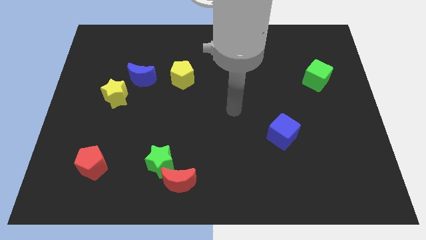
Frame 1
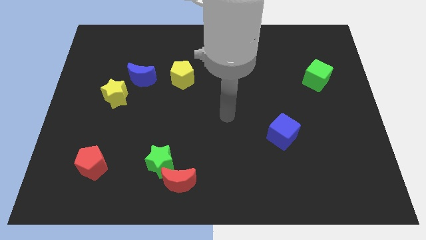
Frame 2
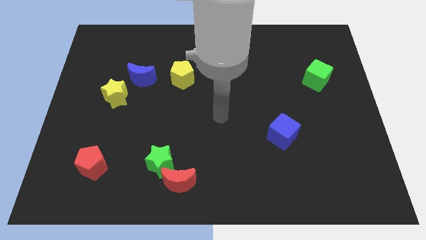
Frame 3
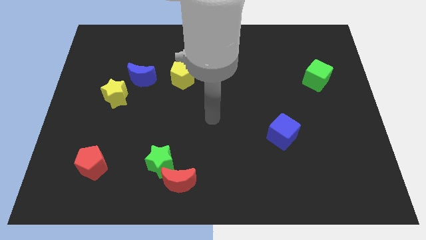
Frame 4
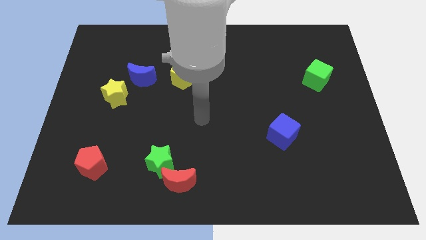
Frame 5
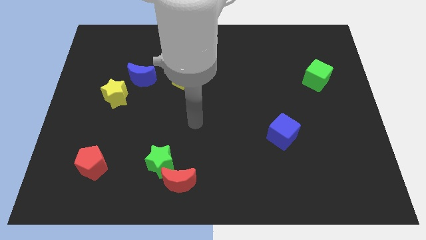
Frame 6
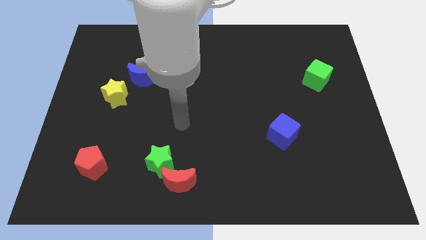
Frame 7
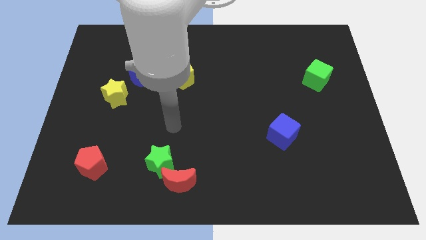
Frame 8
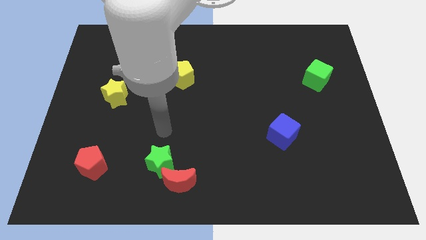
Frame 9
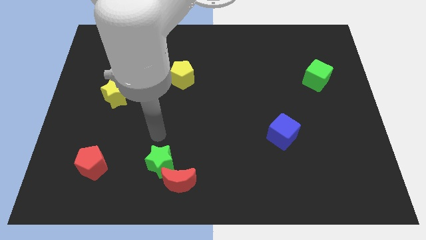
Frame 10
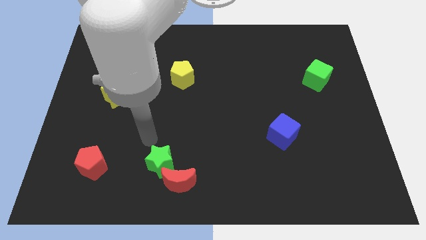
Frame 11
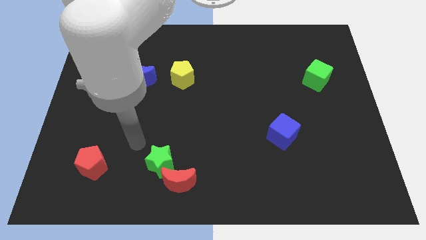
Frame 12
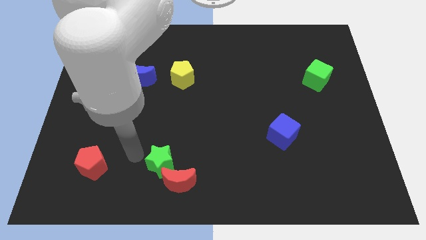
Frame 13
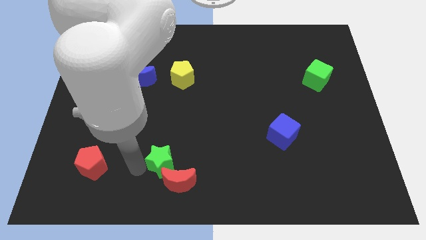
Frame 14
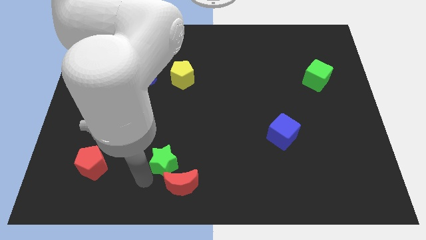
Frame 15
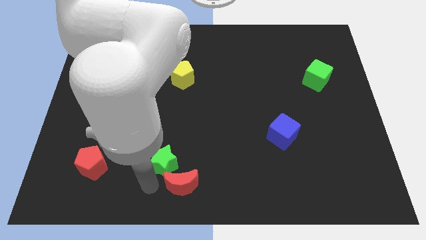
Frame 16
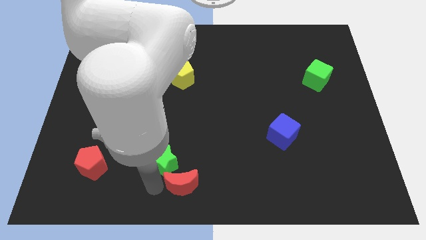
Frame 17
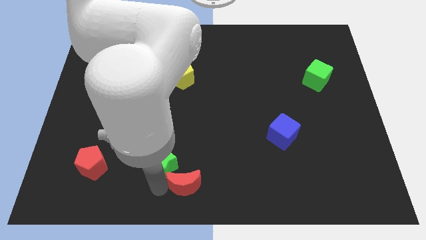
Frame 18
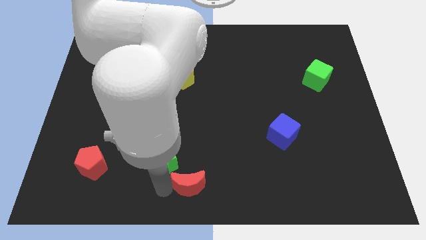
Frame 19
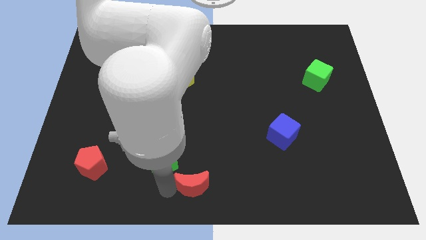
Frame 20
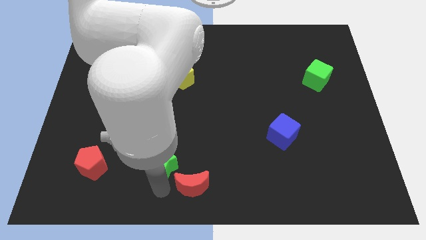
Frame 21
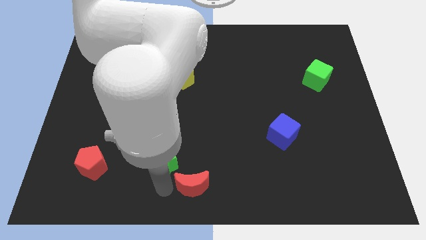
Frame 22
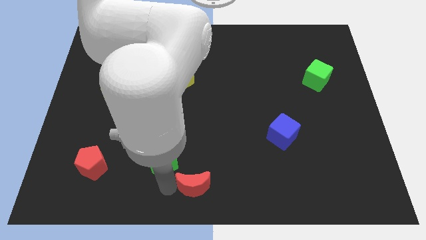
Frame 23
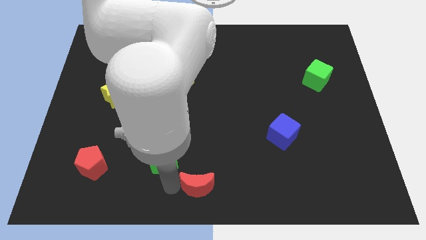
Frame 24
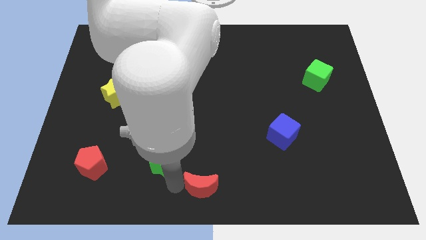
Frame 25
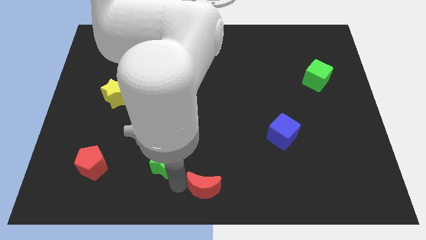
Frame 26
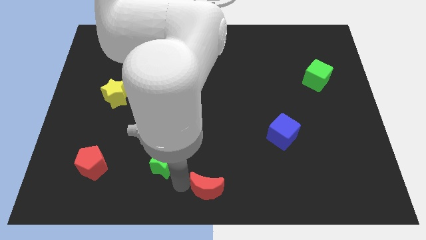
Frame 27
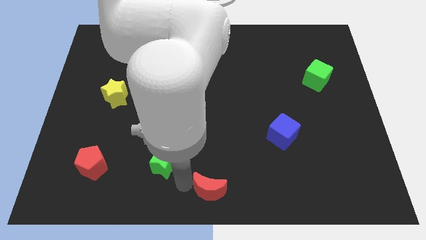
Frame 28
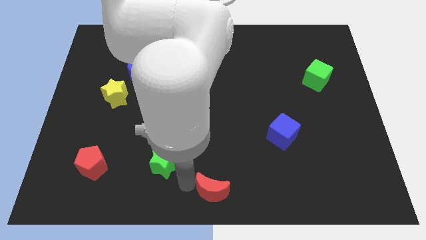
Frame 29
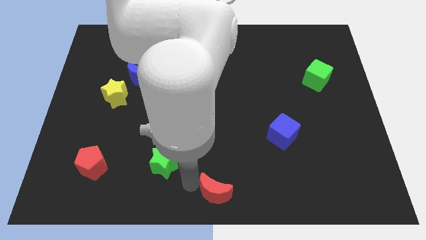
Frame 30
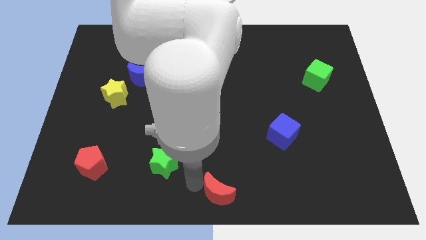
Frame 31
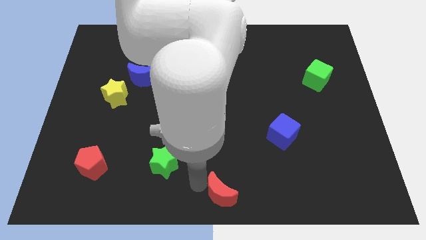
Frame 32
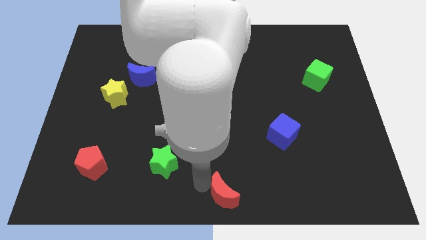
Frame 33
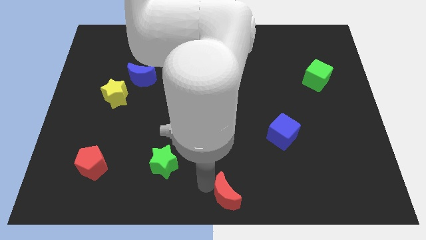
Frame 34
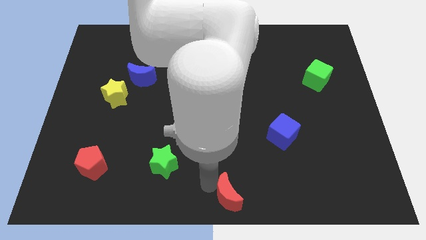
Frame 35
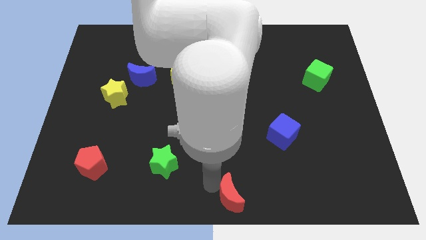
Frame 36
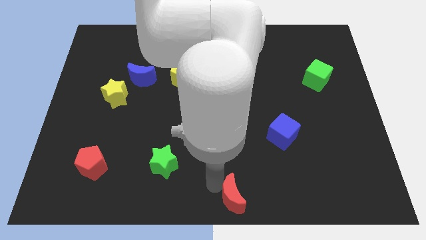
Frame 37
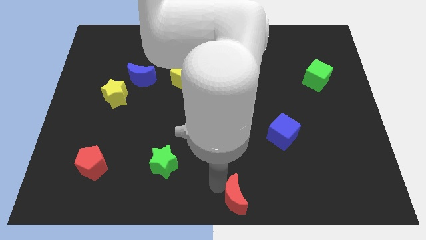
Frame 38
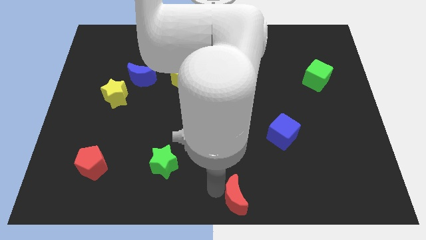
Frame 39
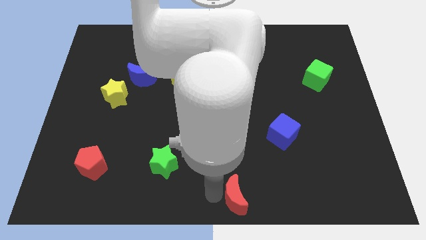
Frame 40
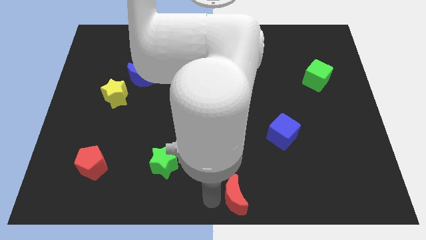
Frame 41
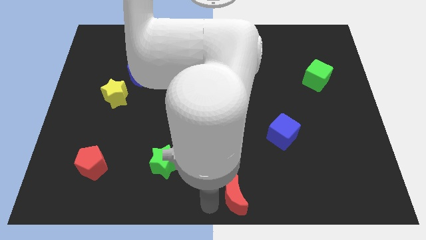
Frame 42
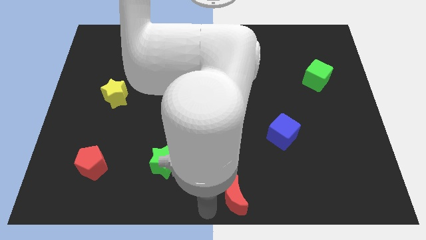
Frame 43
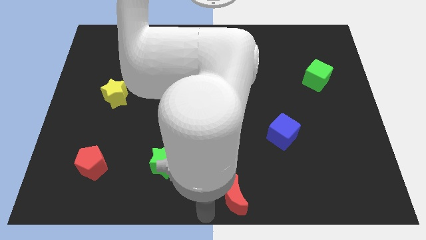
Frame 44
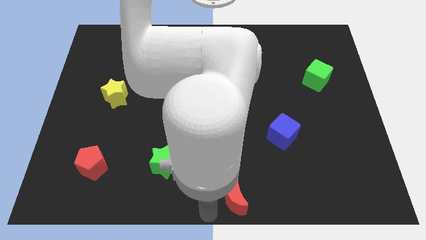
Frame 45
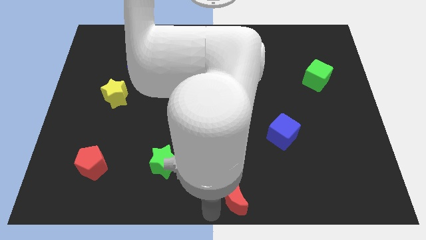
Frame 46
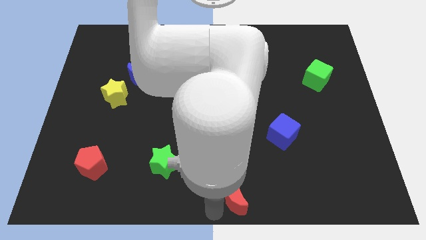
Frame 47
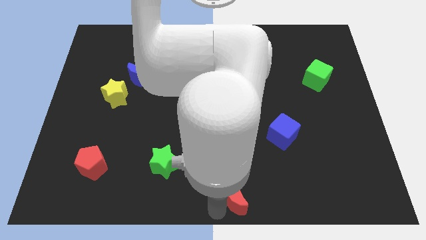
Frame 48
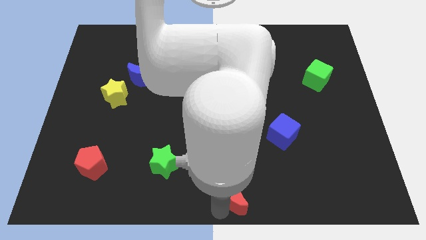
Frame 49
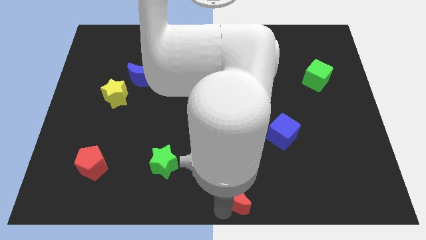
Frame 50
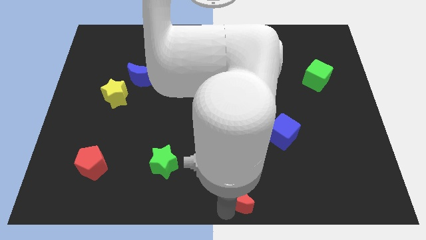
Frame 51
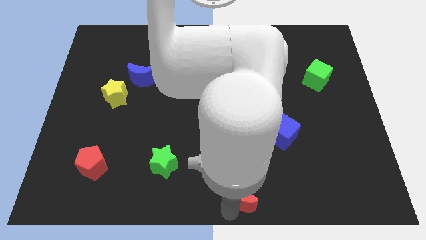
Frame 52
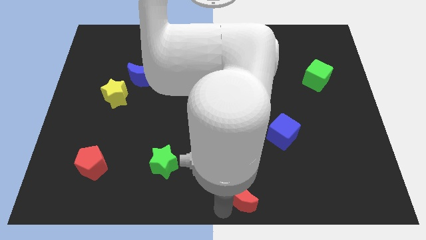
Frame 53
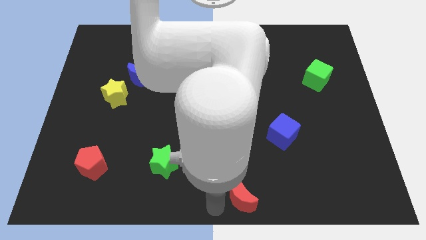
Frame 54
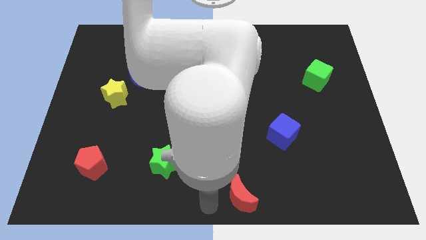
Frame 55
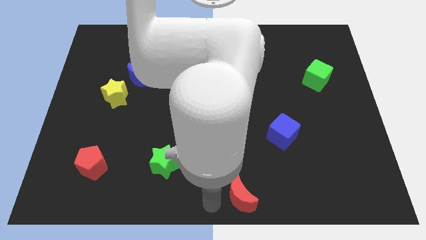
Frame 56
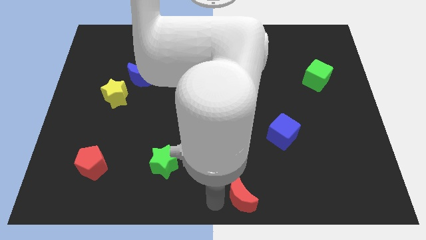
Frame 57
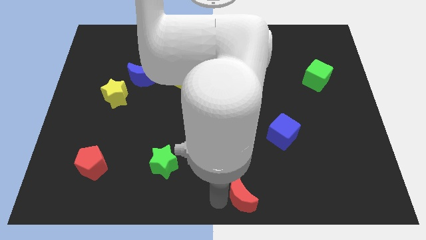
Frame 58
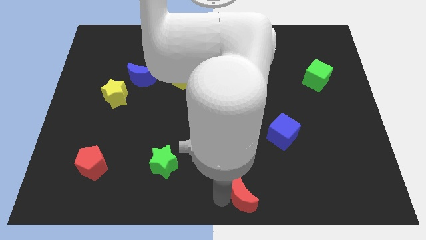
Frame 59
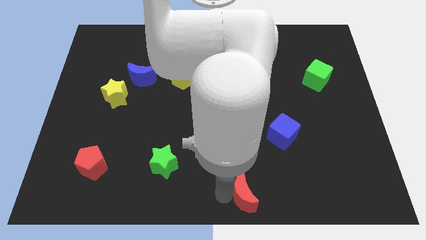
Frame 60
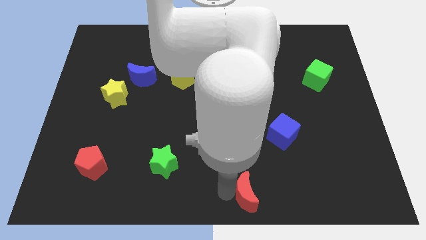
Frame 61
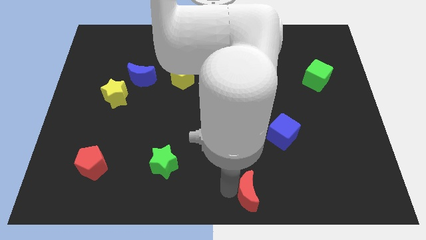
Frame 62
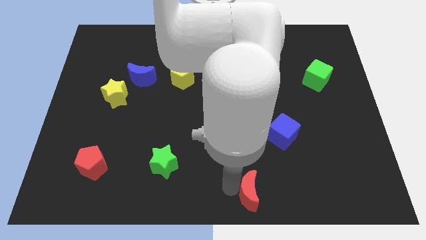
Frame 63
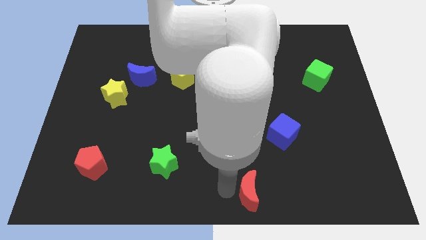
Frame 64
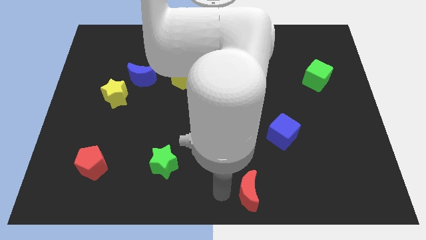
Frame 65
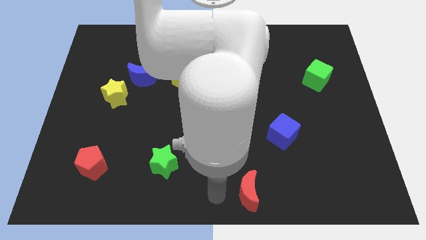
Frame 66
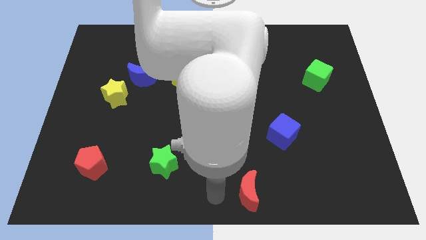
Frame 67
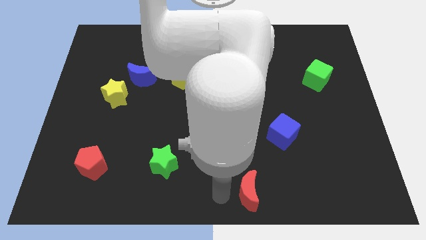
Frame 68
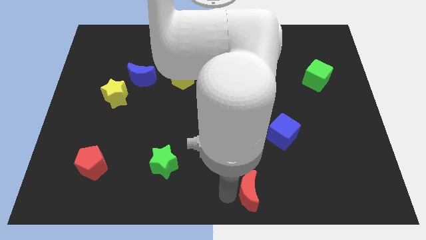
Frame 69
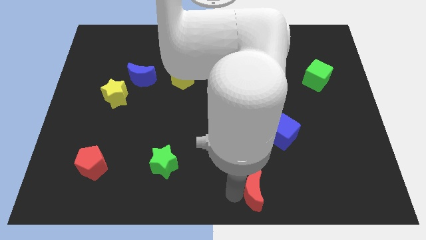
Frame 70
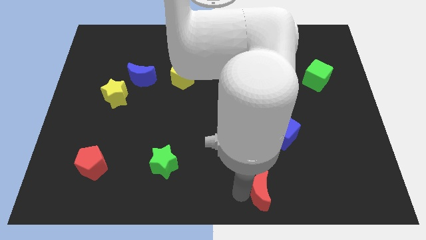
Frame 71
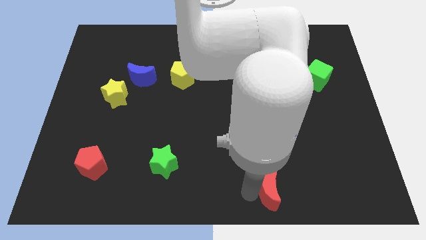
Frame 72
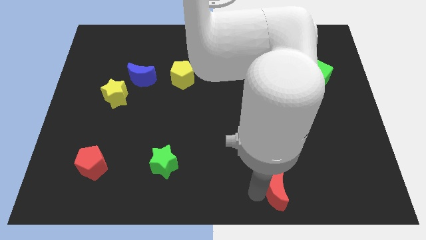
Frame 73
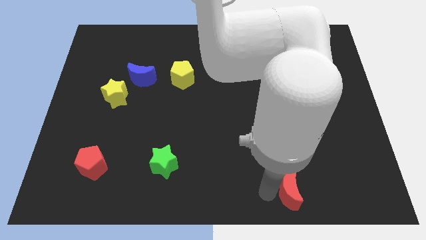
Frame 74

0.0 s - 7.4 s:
move the red moon to the right

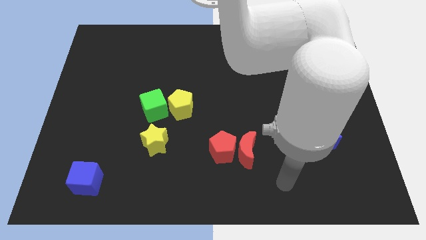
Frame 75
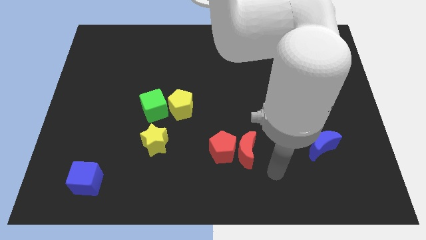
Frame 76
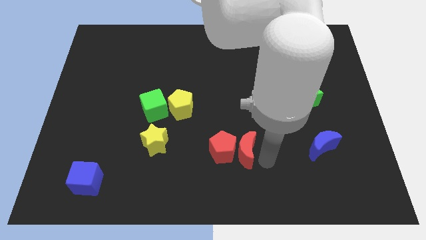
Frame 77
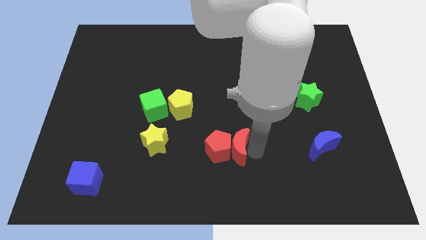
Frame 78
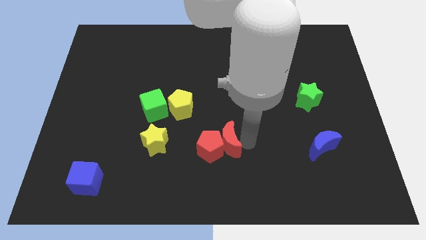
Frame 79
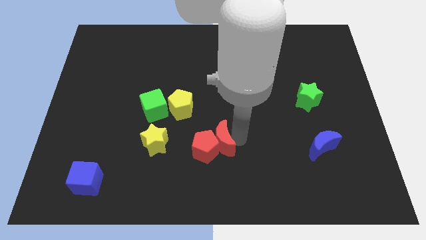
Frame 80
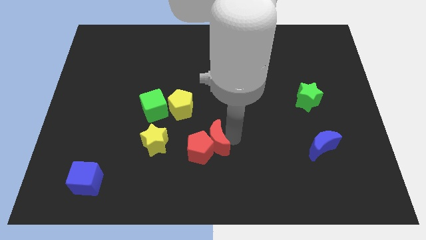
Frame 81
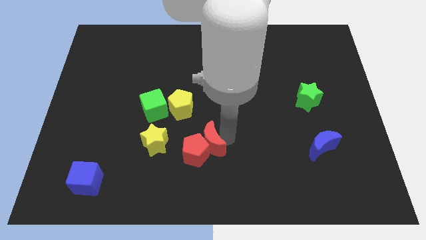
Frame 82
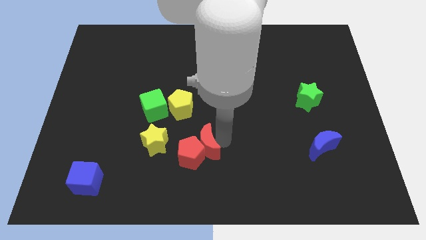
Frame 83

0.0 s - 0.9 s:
move the red pentagon a bit left
